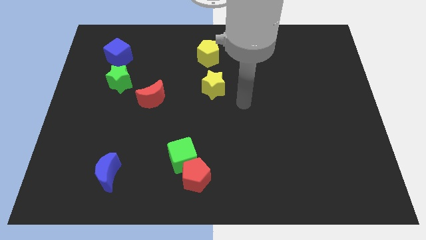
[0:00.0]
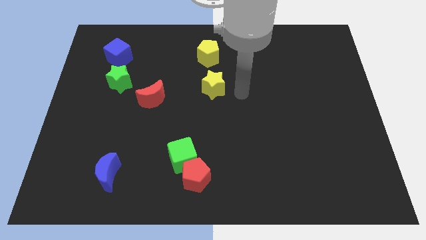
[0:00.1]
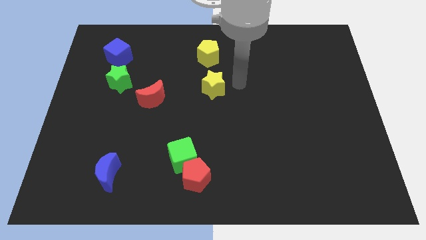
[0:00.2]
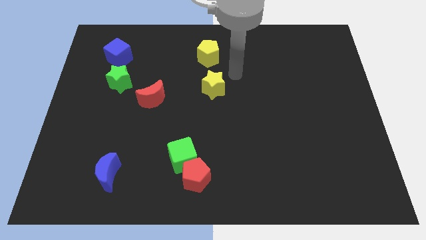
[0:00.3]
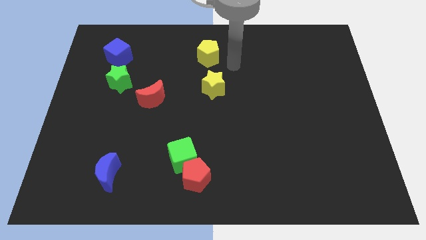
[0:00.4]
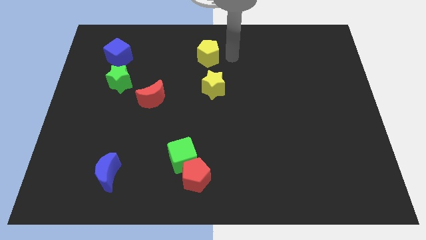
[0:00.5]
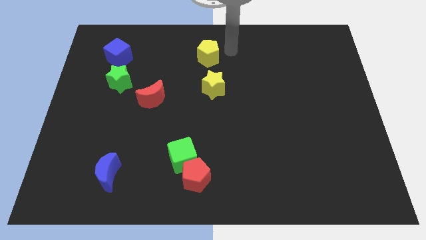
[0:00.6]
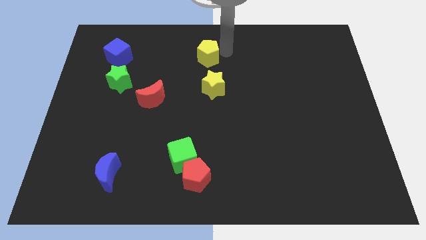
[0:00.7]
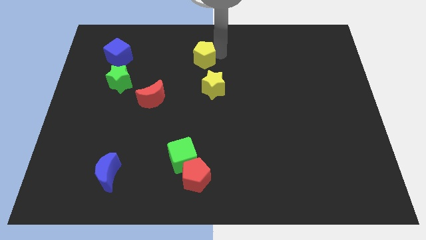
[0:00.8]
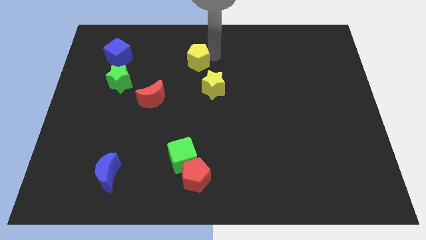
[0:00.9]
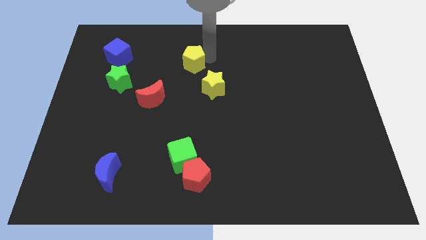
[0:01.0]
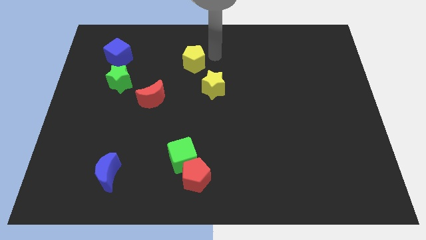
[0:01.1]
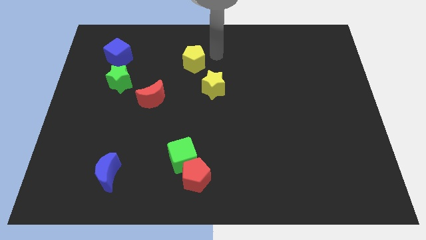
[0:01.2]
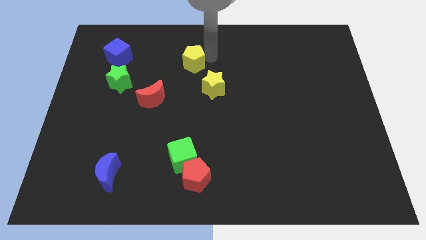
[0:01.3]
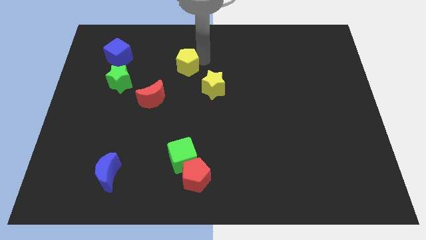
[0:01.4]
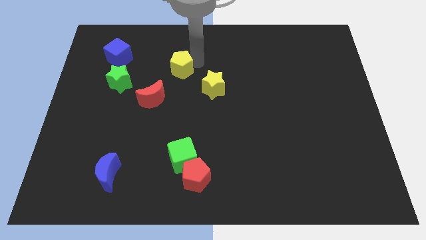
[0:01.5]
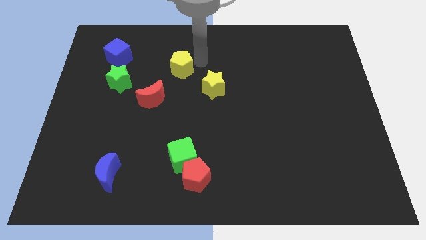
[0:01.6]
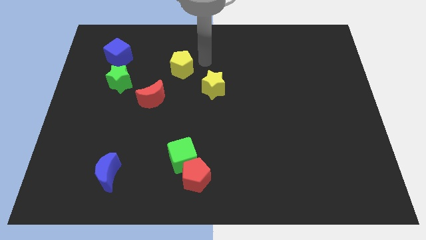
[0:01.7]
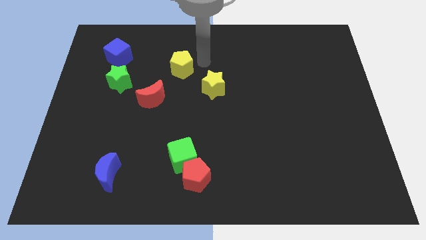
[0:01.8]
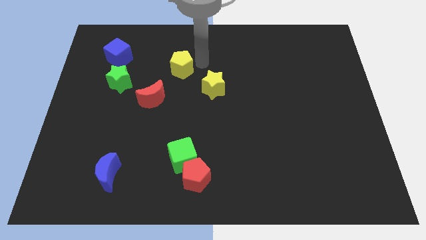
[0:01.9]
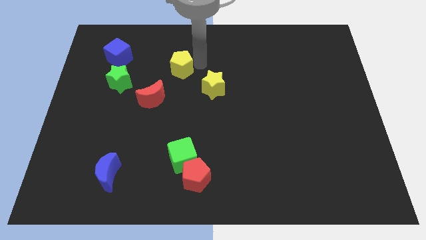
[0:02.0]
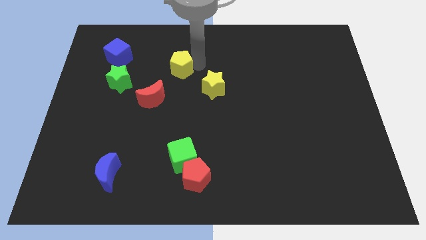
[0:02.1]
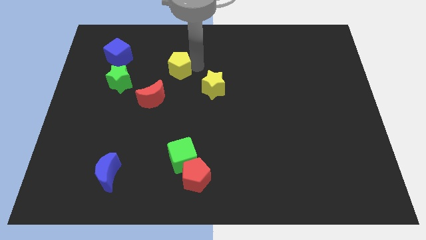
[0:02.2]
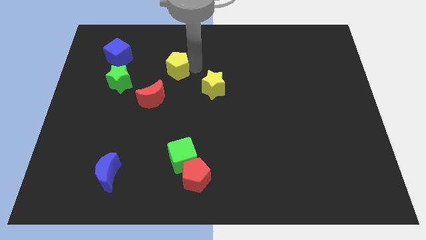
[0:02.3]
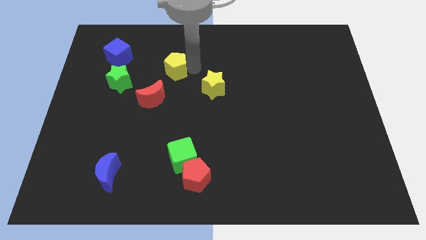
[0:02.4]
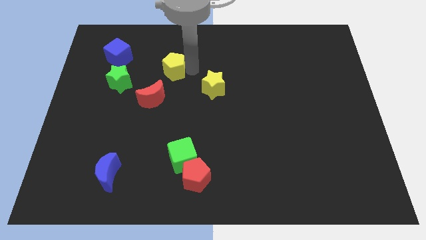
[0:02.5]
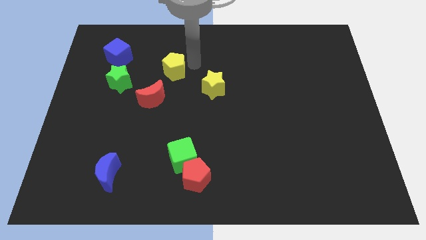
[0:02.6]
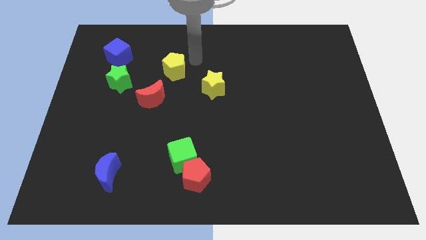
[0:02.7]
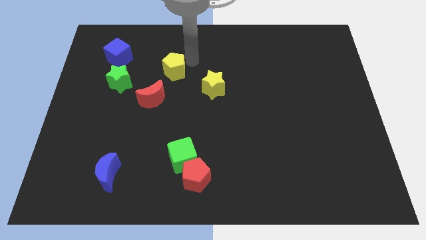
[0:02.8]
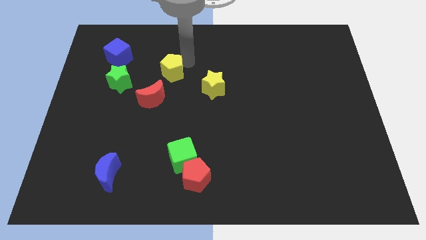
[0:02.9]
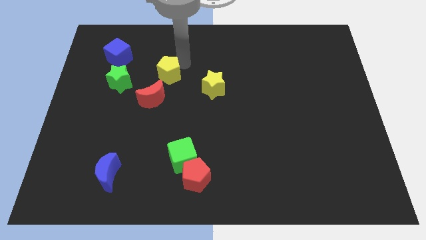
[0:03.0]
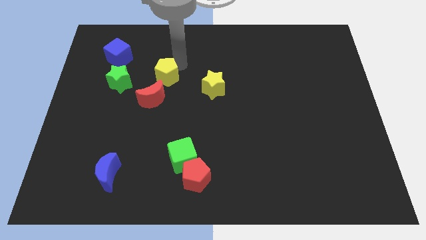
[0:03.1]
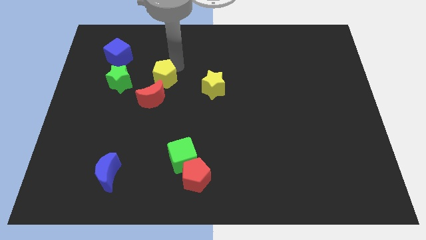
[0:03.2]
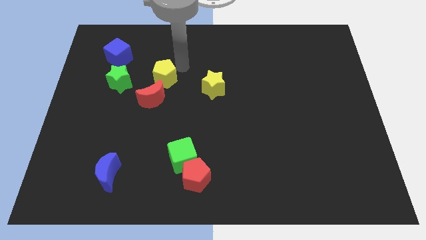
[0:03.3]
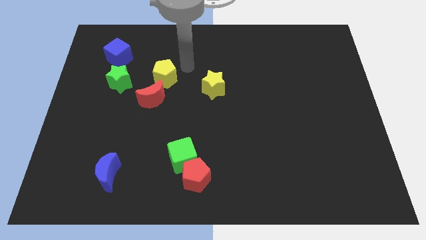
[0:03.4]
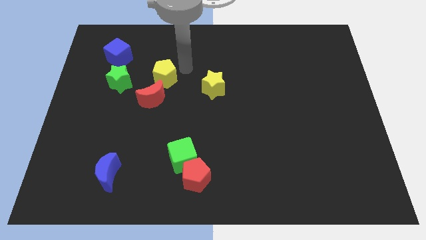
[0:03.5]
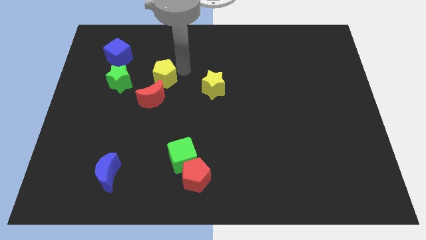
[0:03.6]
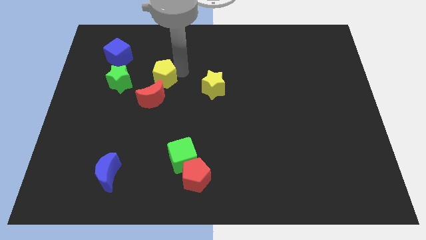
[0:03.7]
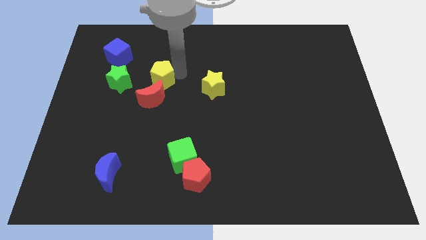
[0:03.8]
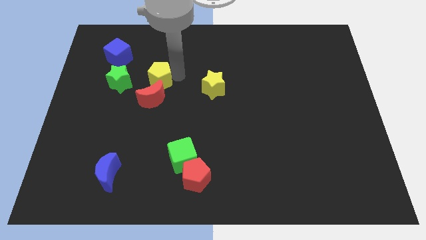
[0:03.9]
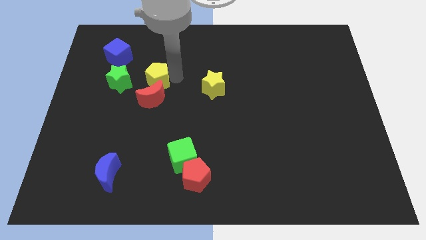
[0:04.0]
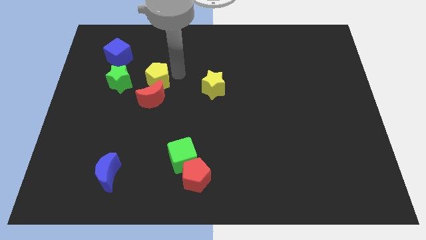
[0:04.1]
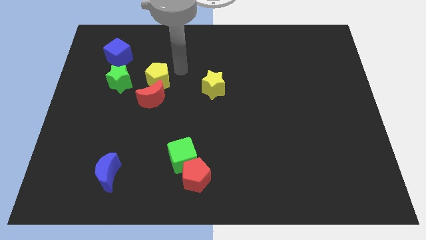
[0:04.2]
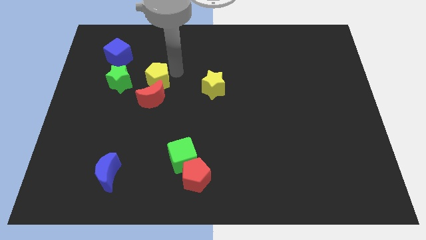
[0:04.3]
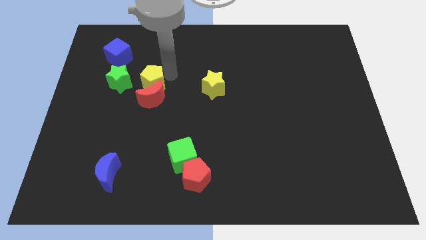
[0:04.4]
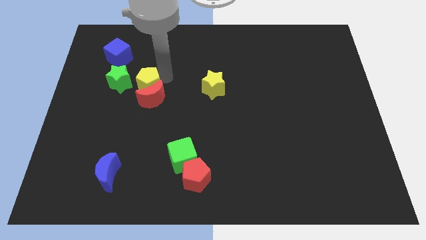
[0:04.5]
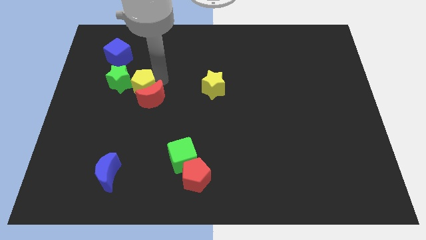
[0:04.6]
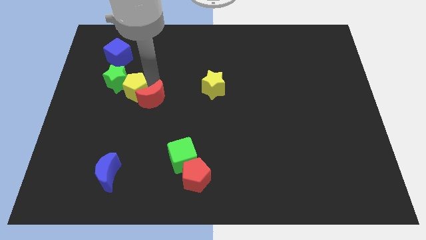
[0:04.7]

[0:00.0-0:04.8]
move the yellow pentagon diagonally downwards and to the left

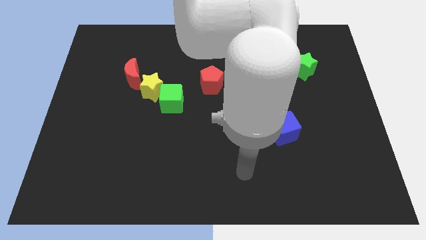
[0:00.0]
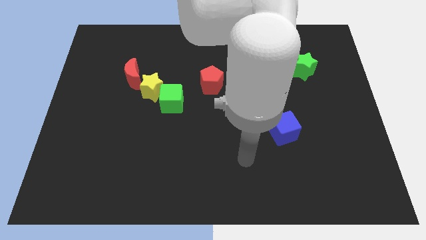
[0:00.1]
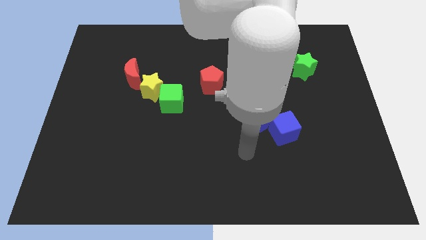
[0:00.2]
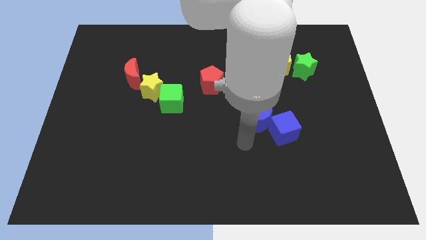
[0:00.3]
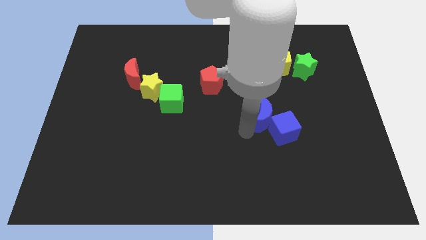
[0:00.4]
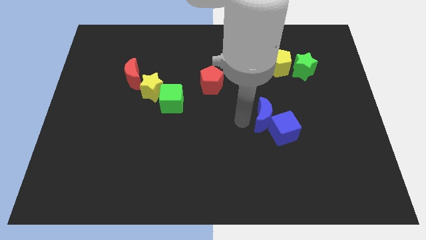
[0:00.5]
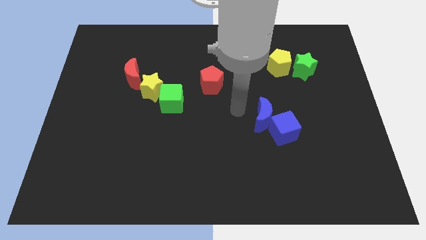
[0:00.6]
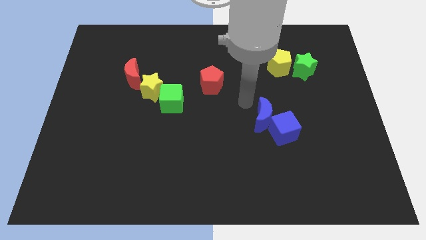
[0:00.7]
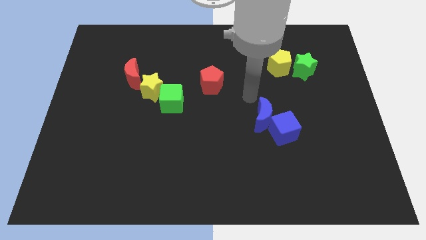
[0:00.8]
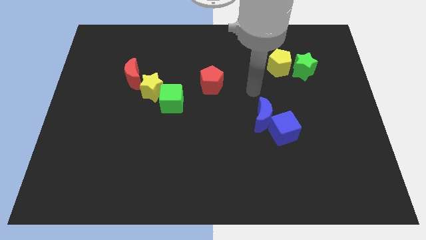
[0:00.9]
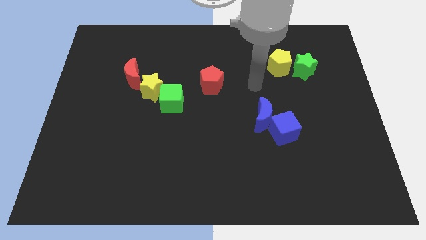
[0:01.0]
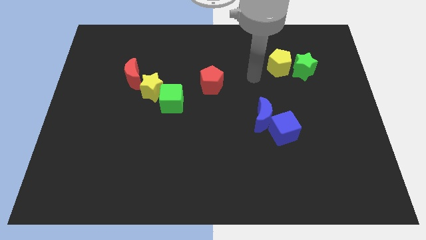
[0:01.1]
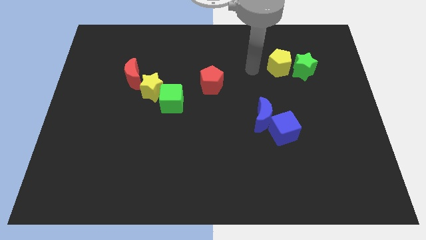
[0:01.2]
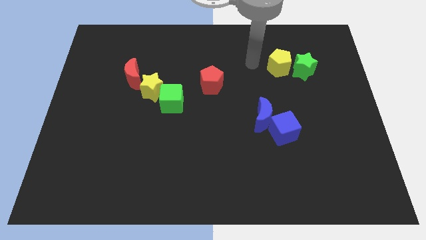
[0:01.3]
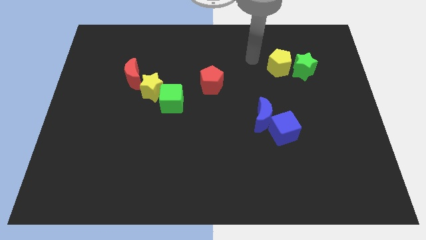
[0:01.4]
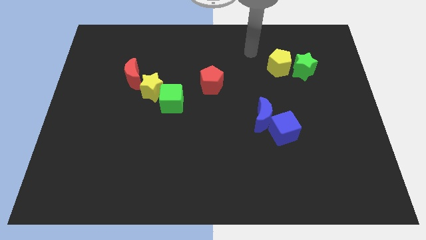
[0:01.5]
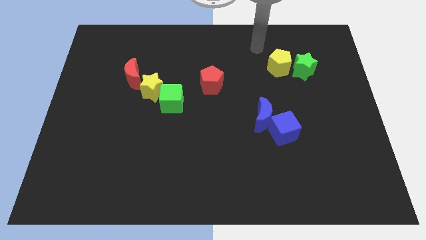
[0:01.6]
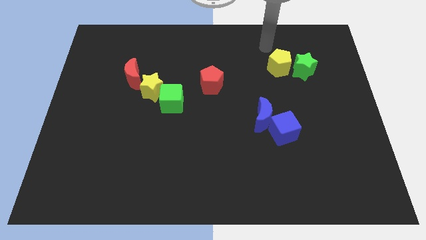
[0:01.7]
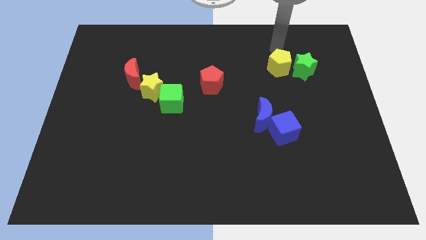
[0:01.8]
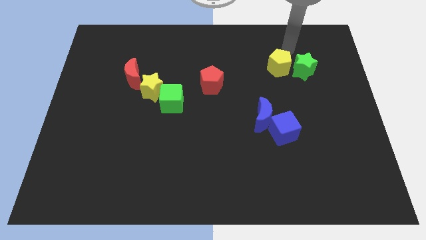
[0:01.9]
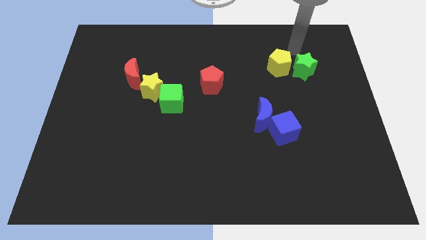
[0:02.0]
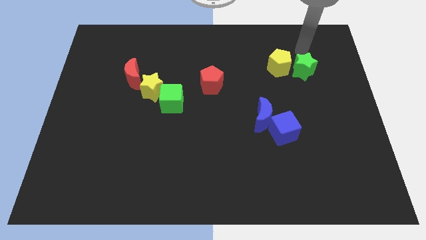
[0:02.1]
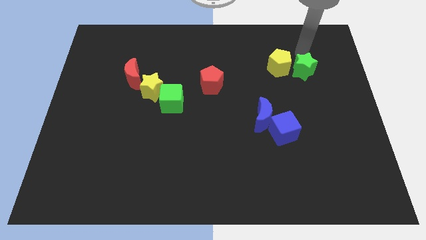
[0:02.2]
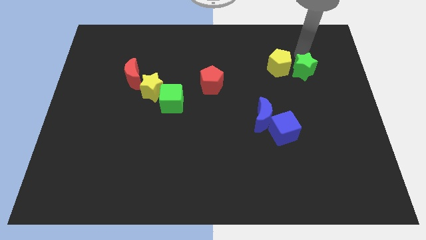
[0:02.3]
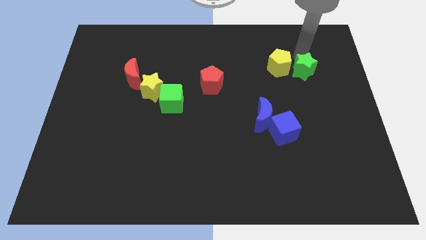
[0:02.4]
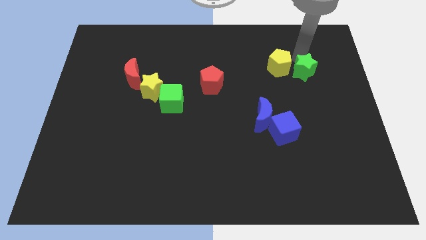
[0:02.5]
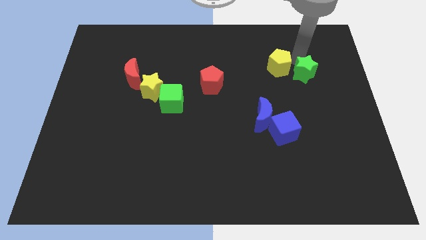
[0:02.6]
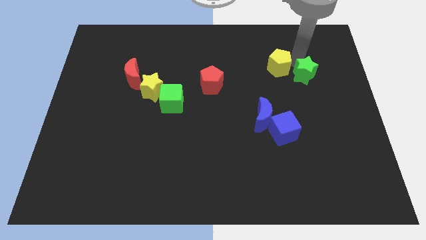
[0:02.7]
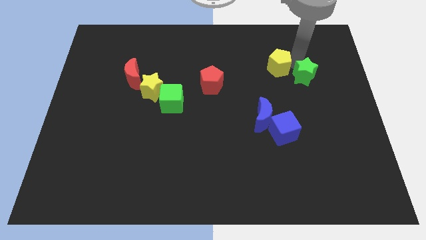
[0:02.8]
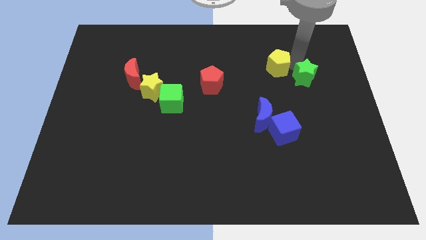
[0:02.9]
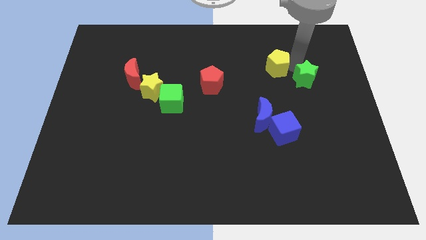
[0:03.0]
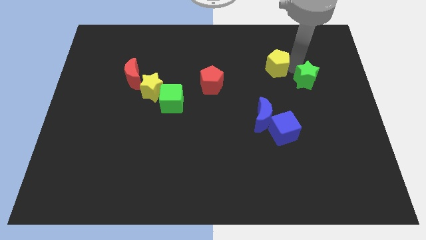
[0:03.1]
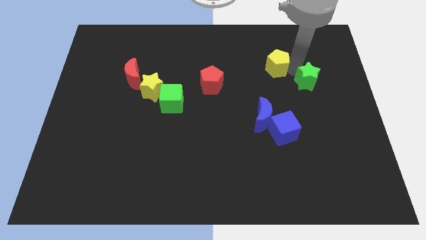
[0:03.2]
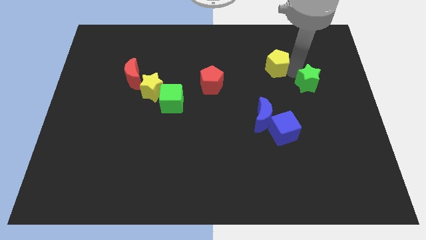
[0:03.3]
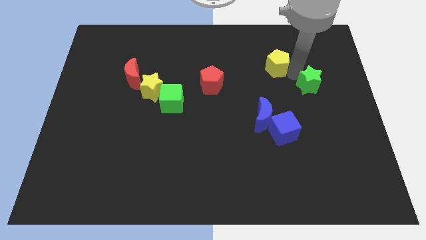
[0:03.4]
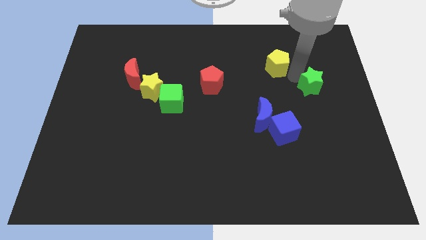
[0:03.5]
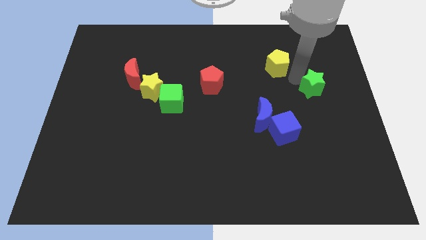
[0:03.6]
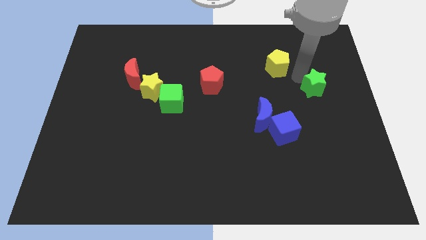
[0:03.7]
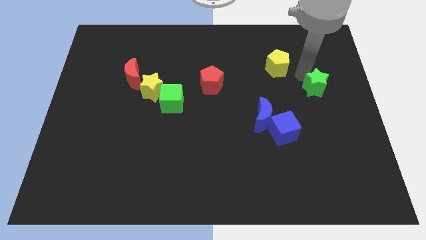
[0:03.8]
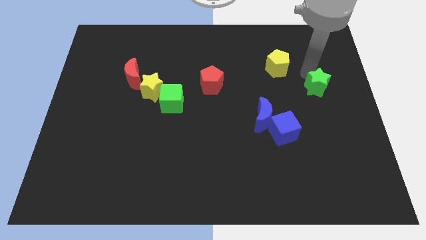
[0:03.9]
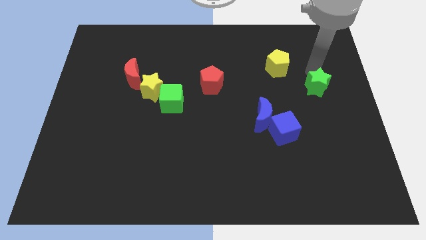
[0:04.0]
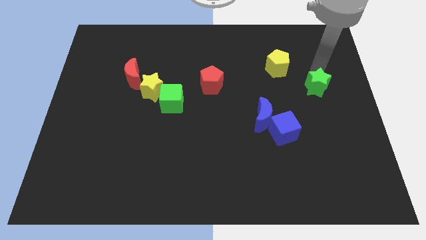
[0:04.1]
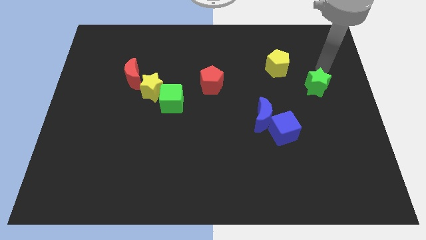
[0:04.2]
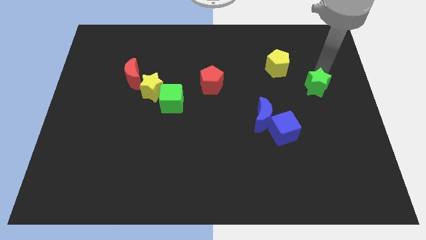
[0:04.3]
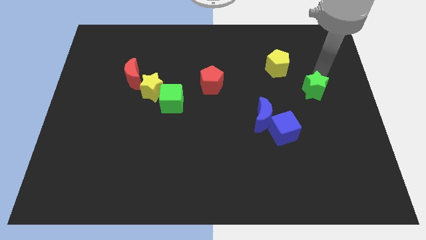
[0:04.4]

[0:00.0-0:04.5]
slide the green star downwards somewhat
